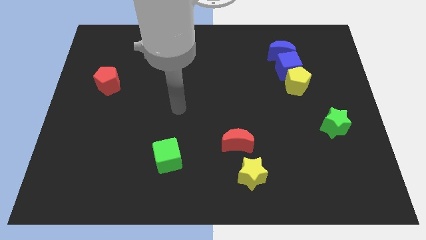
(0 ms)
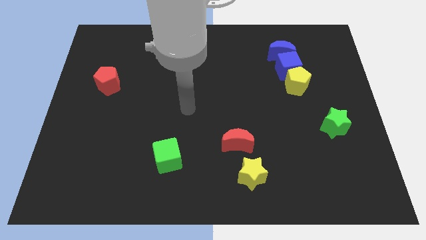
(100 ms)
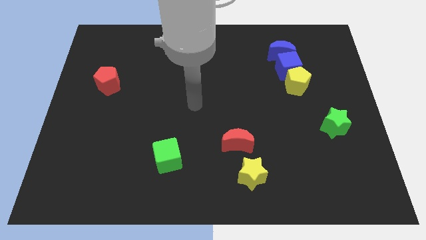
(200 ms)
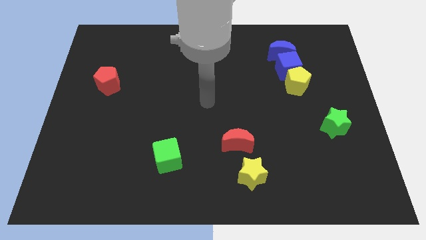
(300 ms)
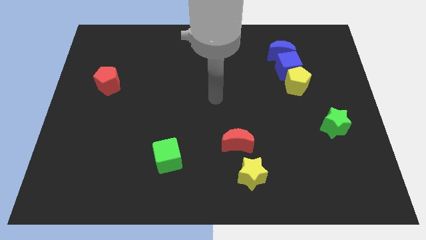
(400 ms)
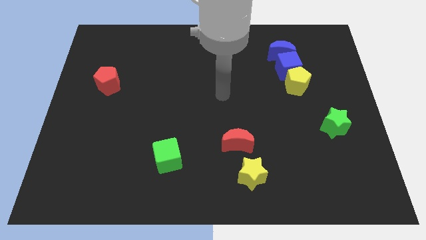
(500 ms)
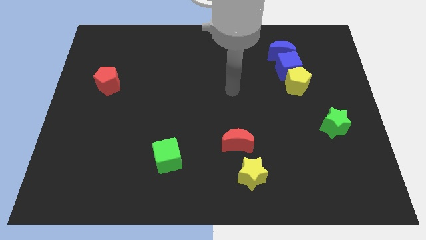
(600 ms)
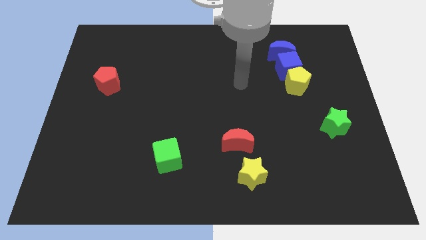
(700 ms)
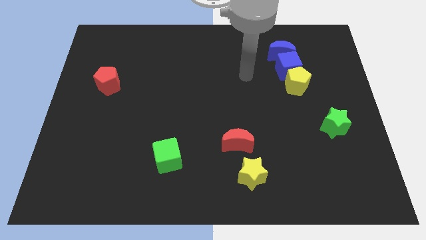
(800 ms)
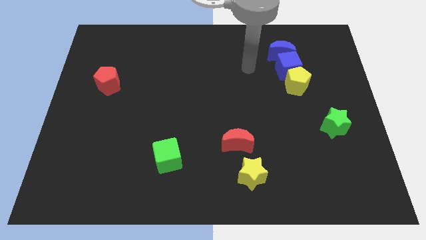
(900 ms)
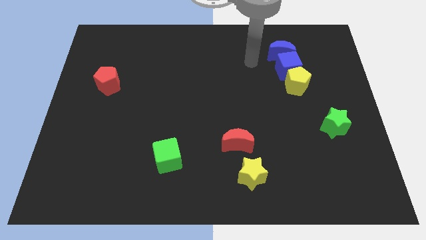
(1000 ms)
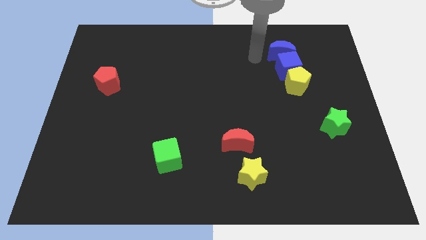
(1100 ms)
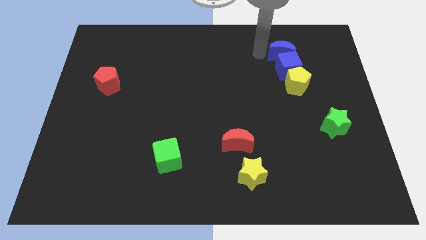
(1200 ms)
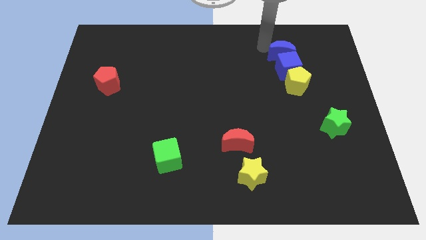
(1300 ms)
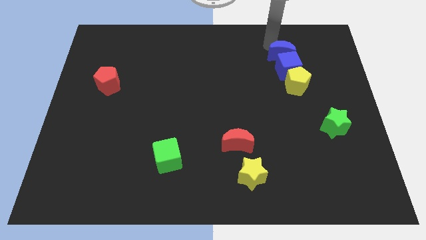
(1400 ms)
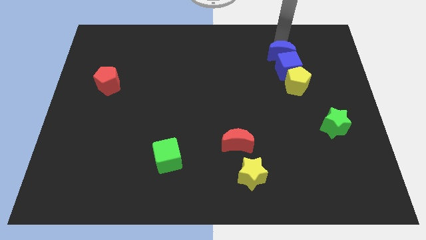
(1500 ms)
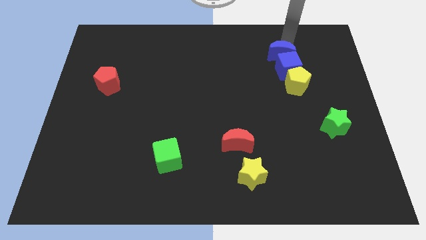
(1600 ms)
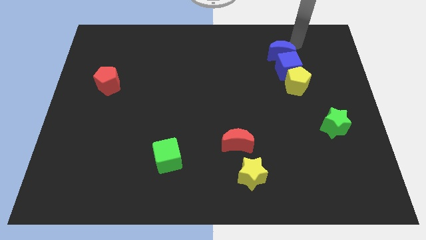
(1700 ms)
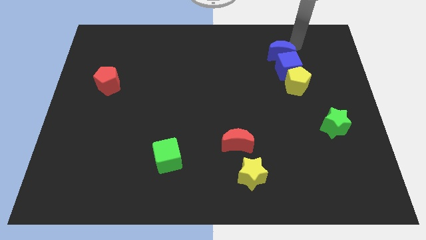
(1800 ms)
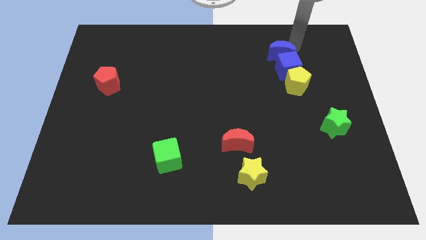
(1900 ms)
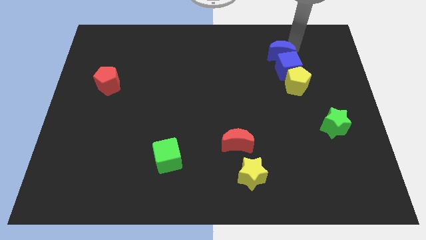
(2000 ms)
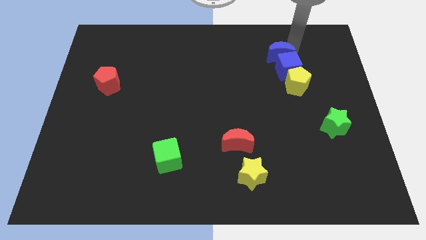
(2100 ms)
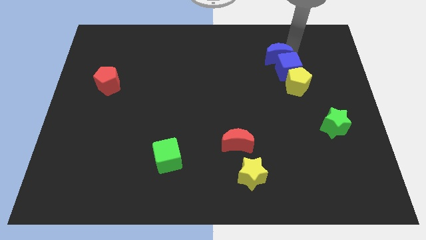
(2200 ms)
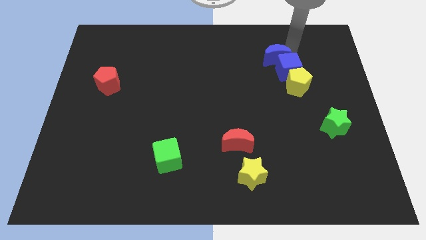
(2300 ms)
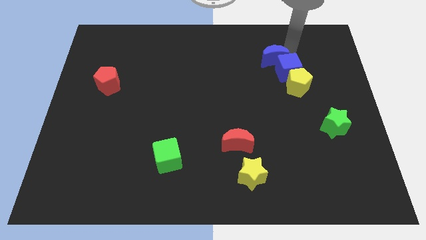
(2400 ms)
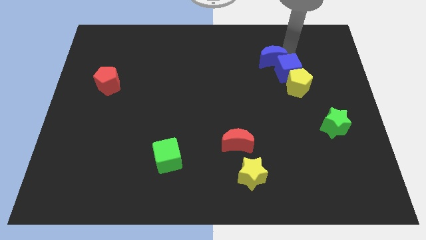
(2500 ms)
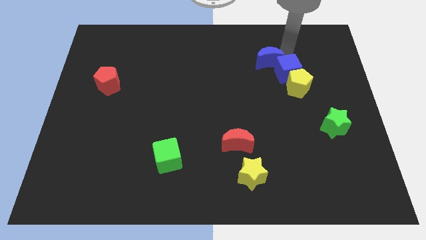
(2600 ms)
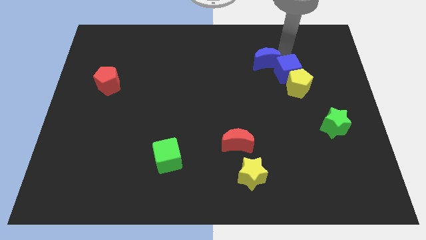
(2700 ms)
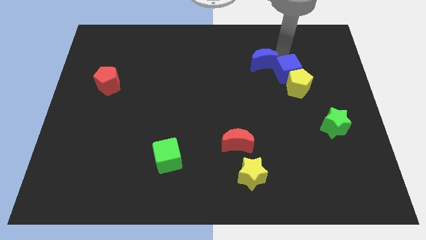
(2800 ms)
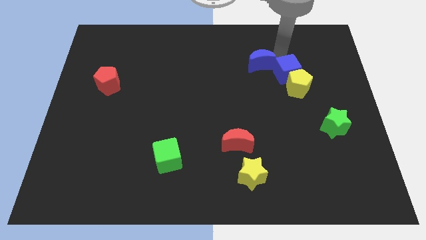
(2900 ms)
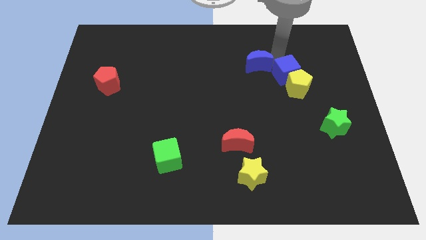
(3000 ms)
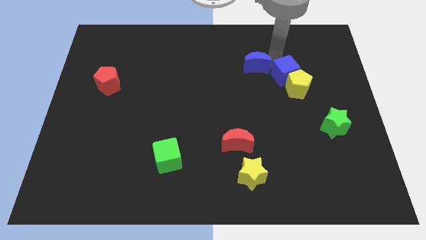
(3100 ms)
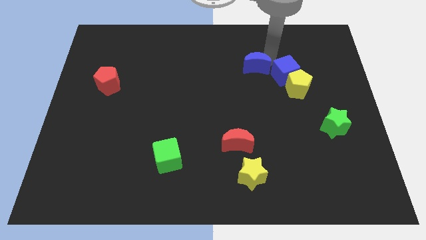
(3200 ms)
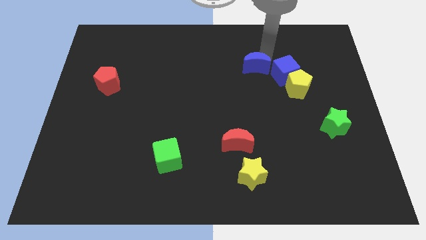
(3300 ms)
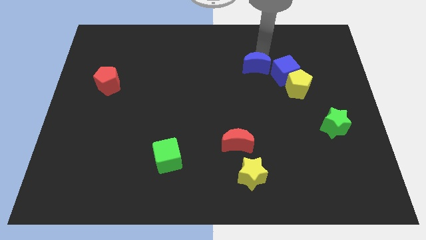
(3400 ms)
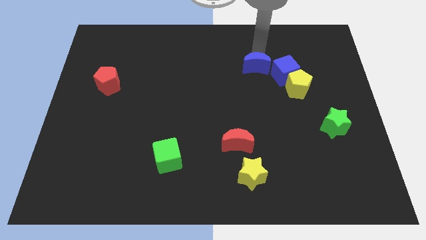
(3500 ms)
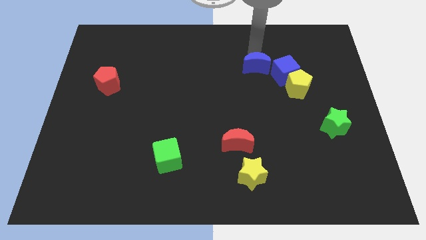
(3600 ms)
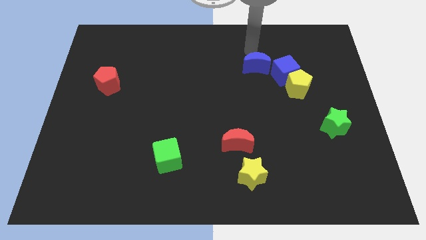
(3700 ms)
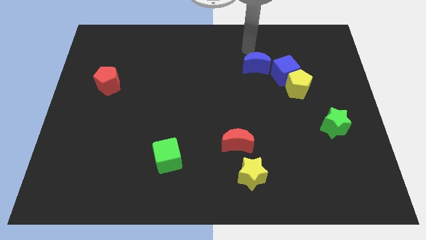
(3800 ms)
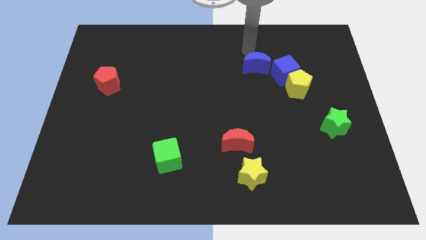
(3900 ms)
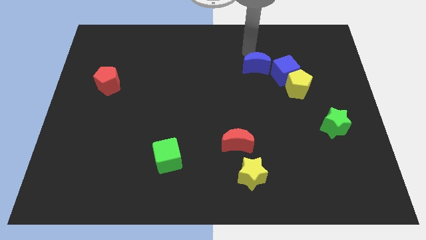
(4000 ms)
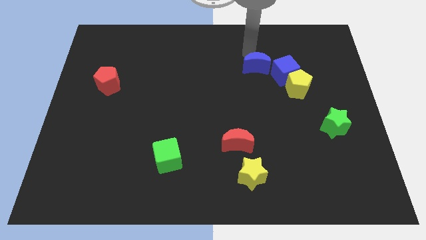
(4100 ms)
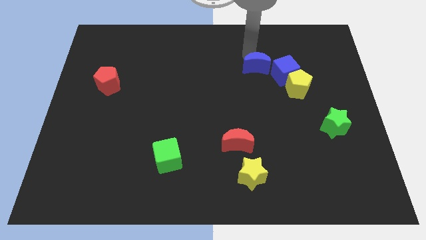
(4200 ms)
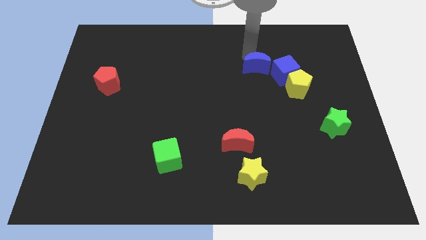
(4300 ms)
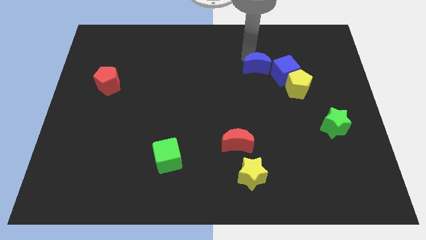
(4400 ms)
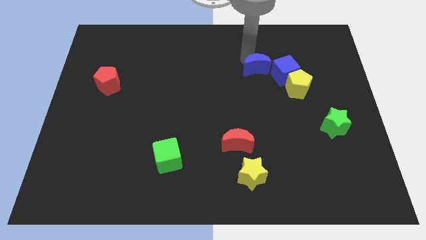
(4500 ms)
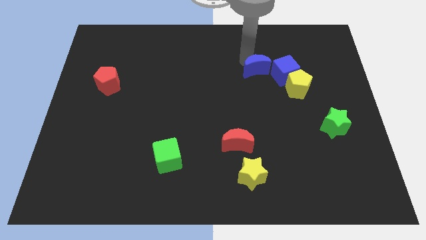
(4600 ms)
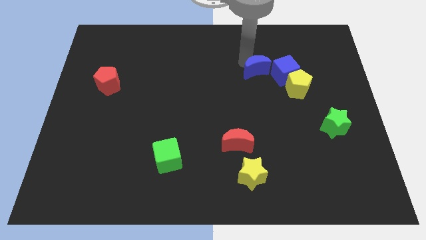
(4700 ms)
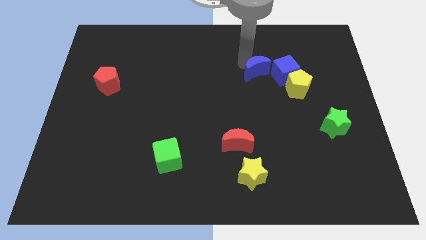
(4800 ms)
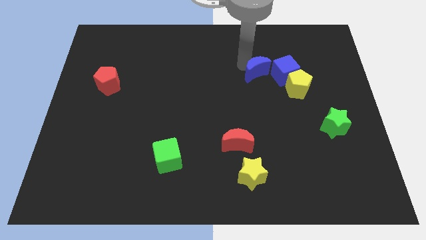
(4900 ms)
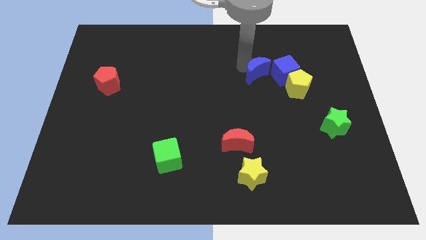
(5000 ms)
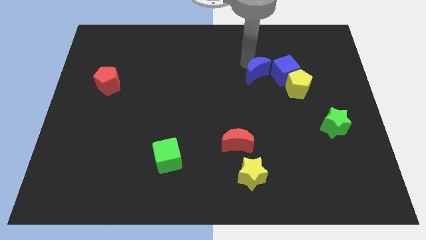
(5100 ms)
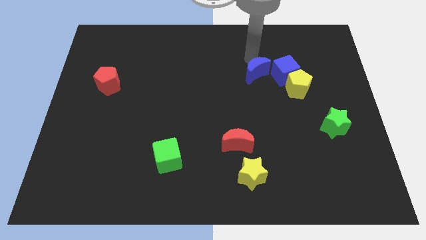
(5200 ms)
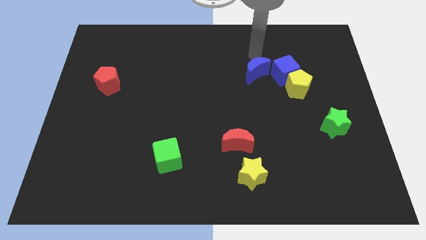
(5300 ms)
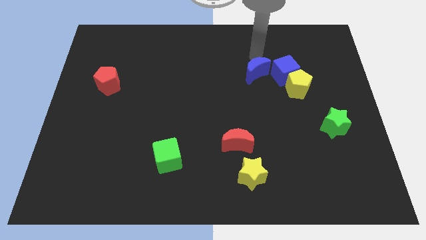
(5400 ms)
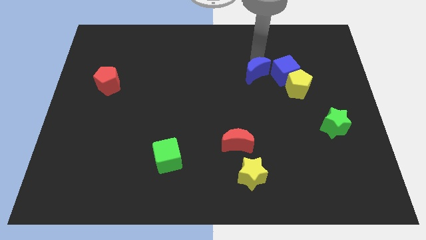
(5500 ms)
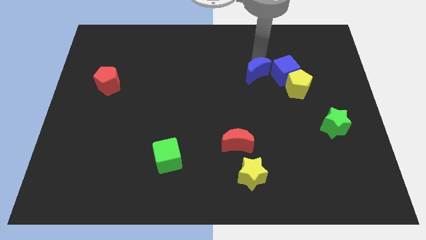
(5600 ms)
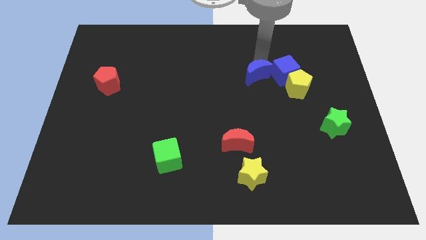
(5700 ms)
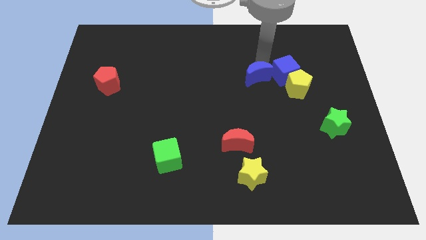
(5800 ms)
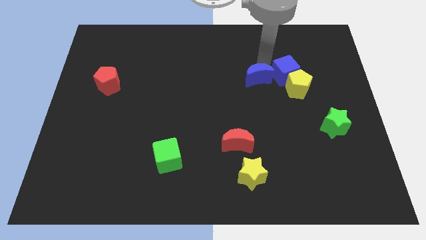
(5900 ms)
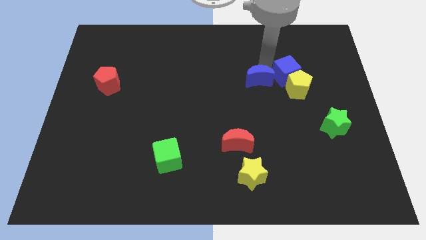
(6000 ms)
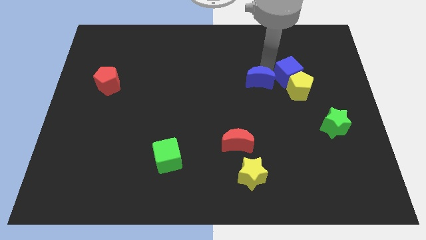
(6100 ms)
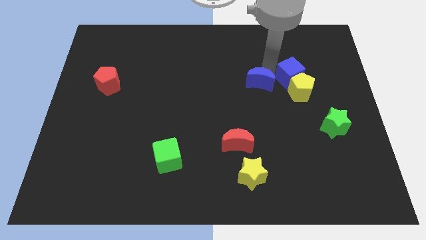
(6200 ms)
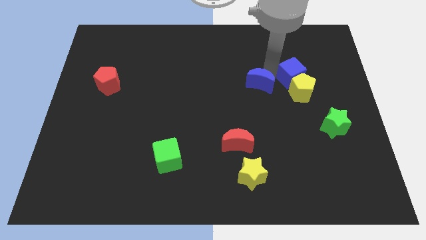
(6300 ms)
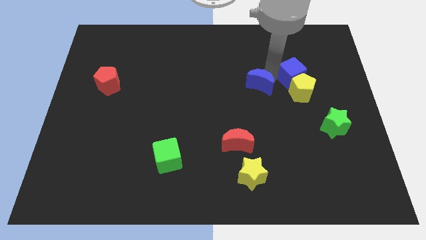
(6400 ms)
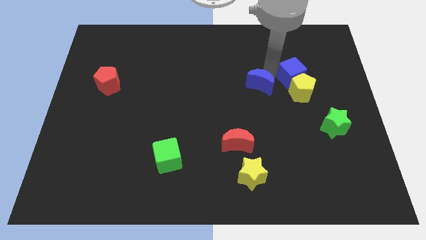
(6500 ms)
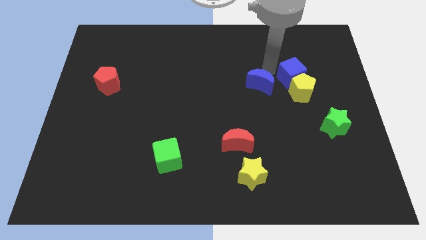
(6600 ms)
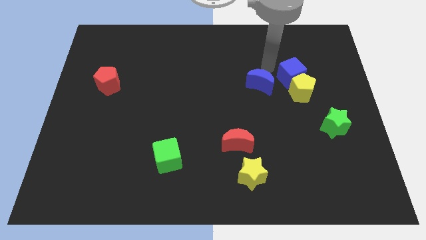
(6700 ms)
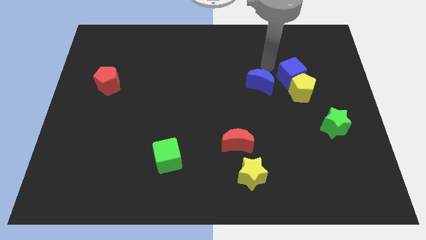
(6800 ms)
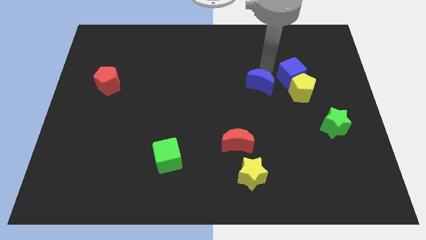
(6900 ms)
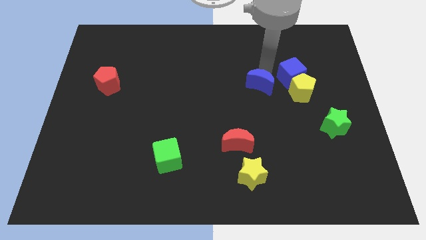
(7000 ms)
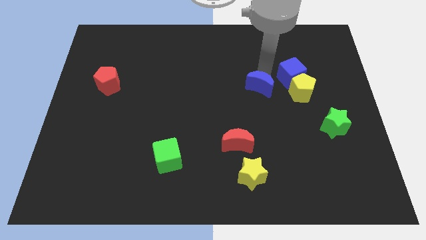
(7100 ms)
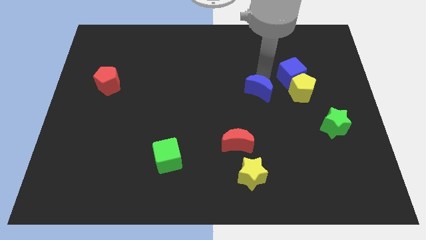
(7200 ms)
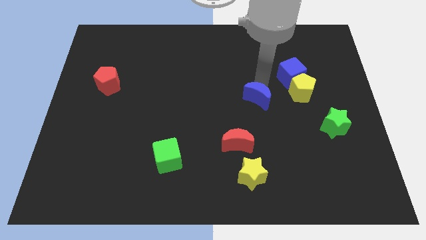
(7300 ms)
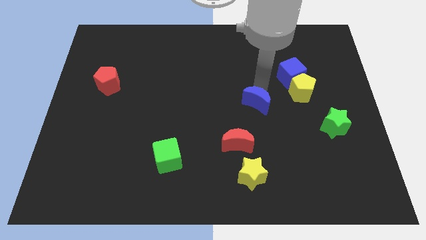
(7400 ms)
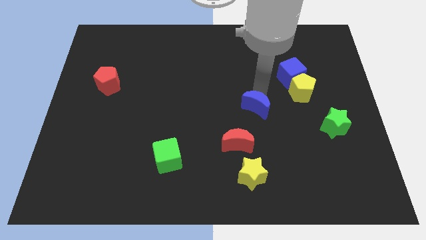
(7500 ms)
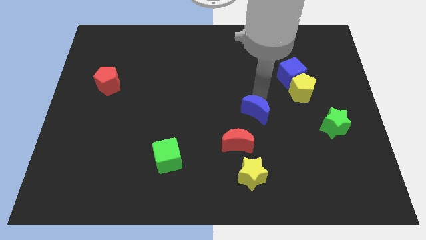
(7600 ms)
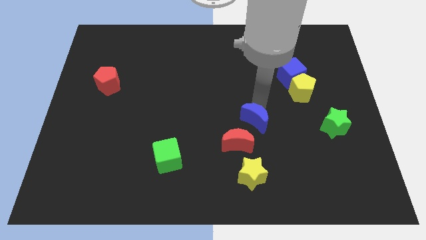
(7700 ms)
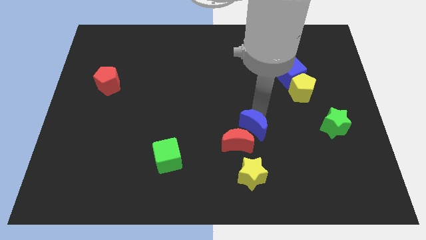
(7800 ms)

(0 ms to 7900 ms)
move the blue moon close to the red moon
